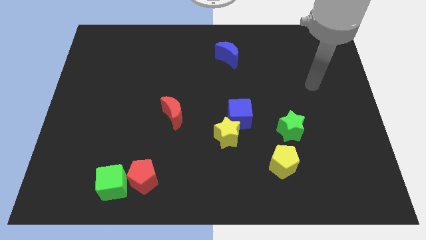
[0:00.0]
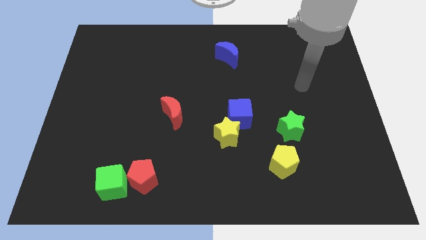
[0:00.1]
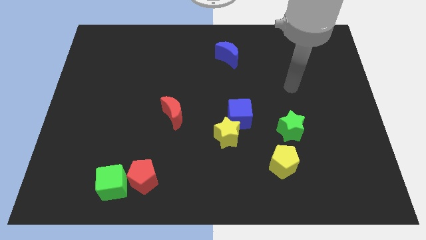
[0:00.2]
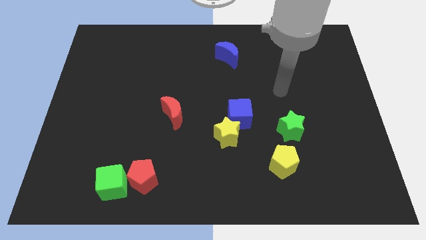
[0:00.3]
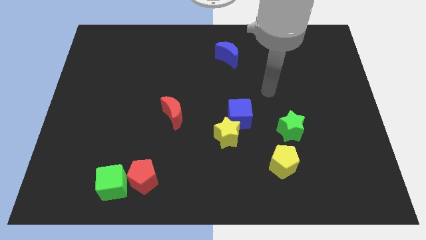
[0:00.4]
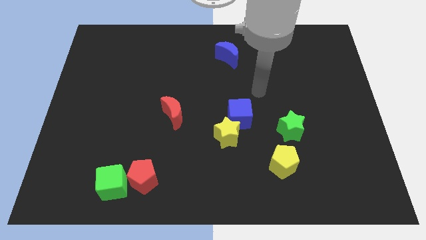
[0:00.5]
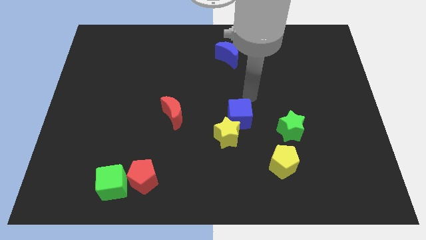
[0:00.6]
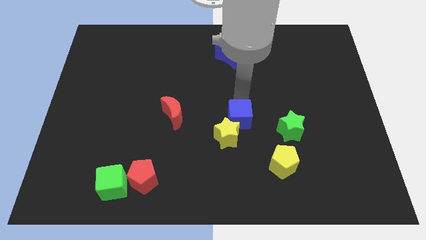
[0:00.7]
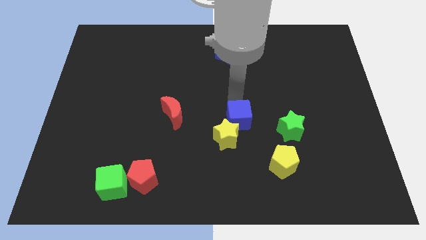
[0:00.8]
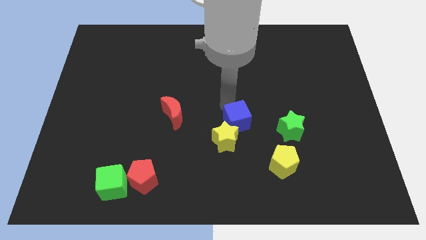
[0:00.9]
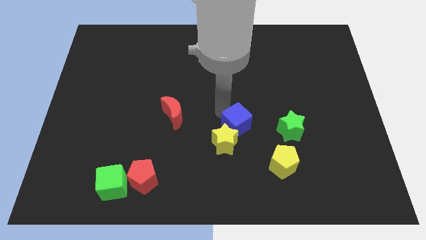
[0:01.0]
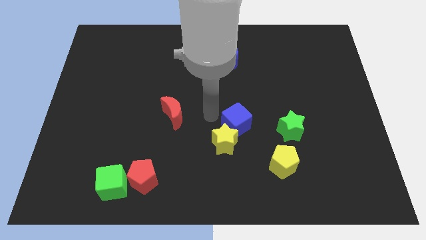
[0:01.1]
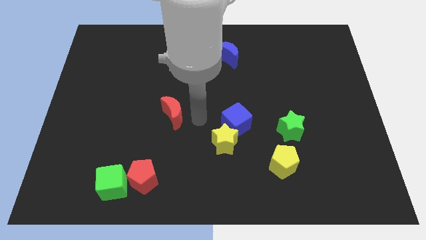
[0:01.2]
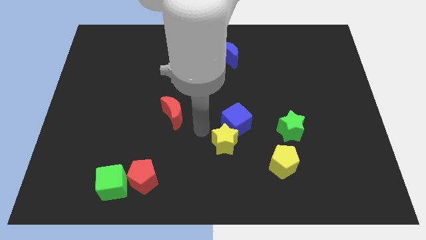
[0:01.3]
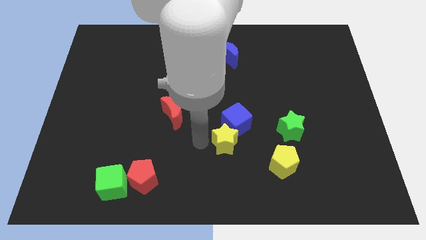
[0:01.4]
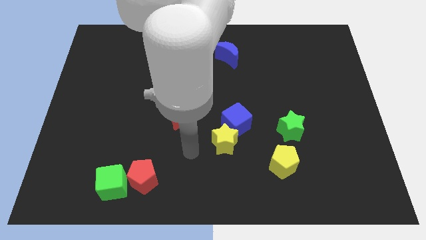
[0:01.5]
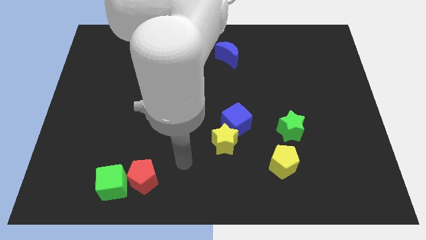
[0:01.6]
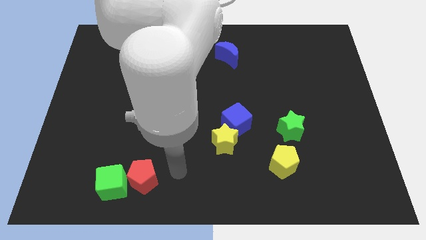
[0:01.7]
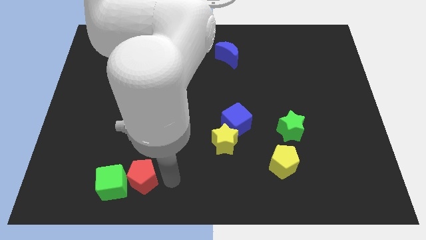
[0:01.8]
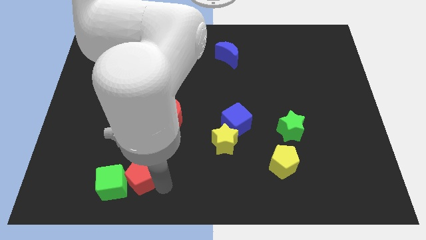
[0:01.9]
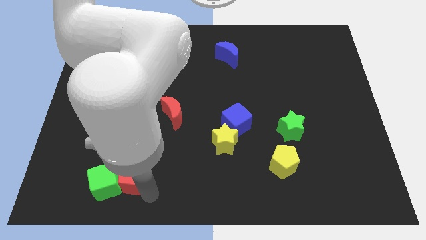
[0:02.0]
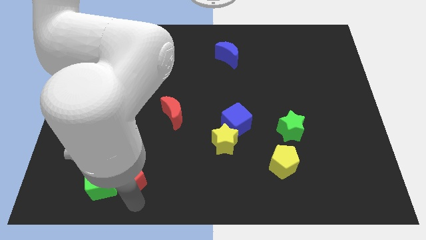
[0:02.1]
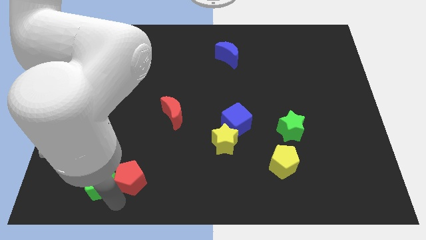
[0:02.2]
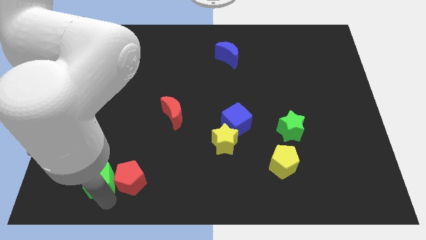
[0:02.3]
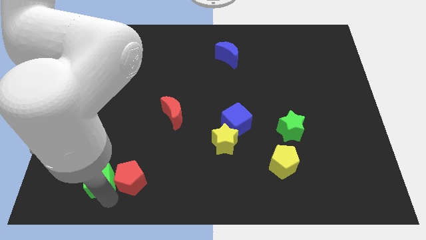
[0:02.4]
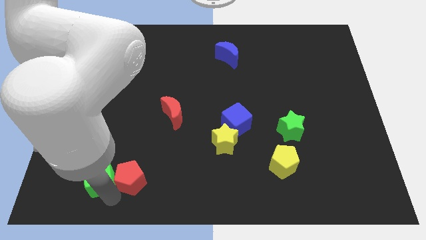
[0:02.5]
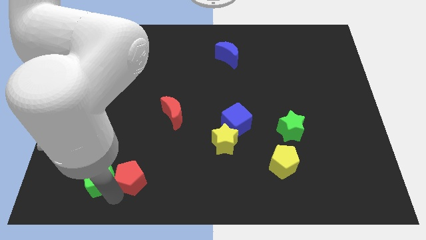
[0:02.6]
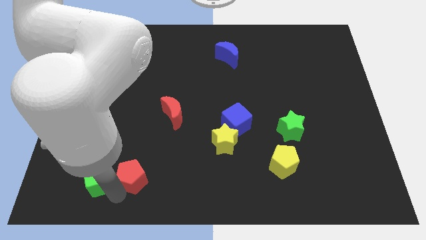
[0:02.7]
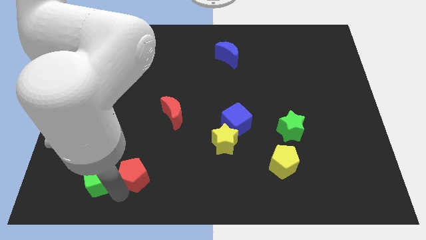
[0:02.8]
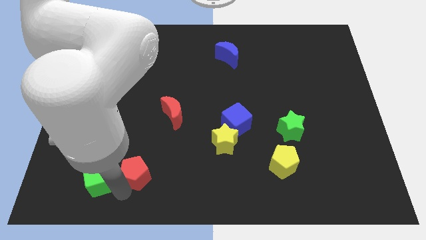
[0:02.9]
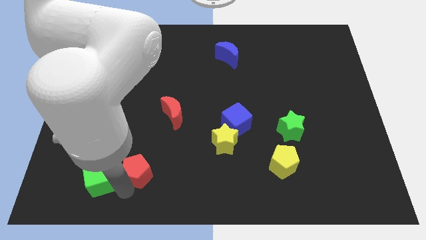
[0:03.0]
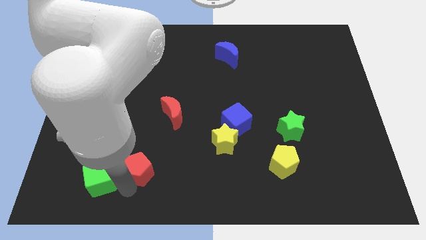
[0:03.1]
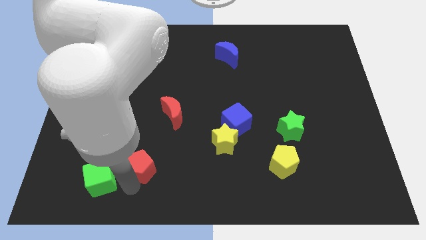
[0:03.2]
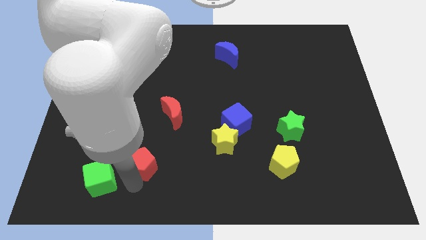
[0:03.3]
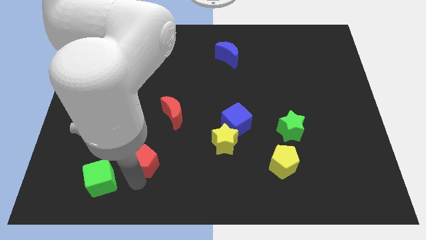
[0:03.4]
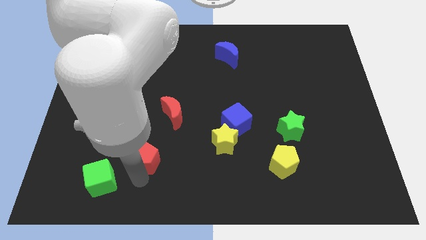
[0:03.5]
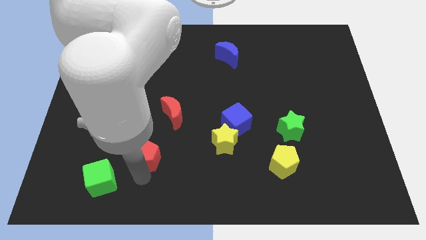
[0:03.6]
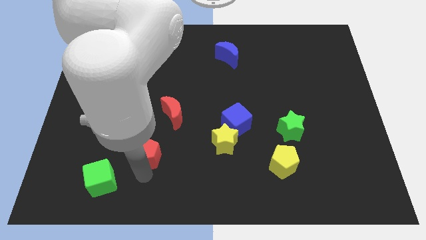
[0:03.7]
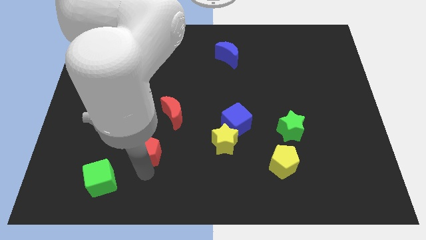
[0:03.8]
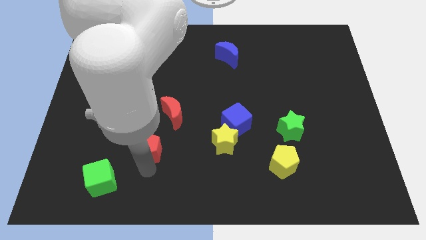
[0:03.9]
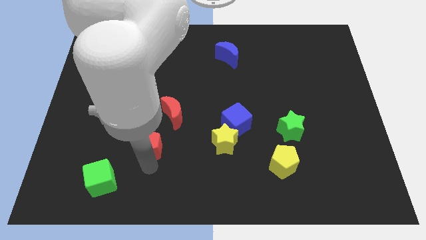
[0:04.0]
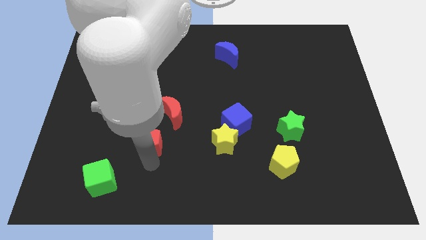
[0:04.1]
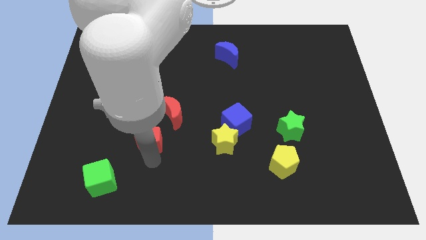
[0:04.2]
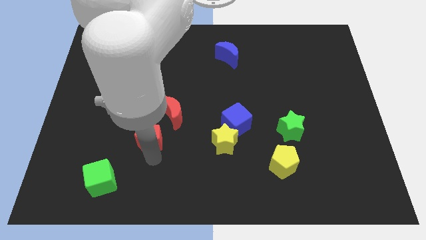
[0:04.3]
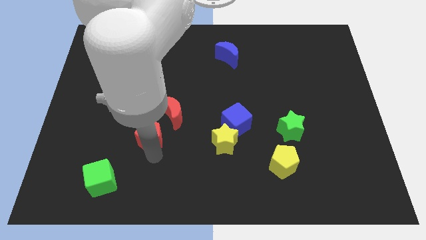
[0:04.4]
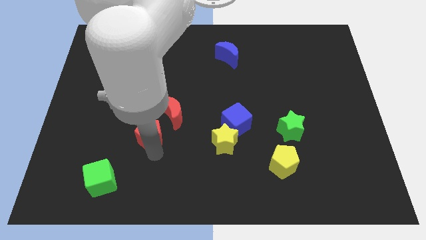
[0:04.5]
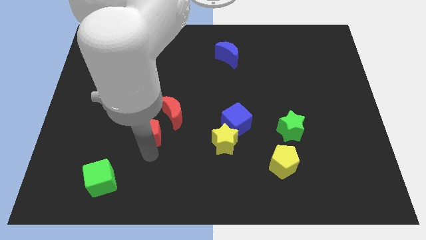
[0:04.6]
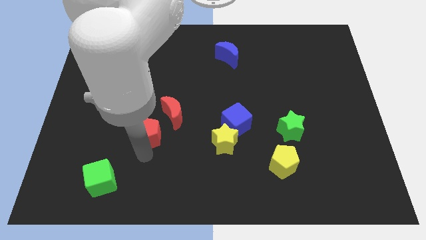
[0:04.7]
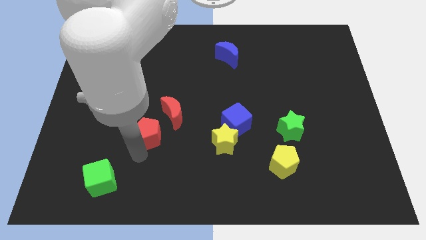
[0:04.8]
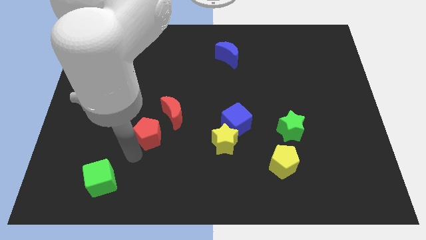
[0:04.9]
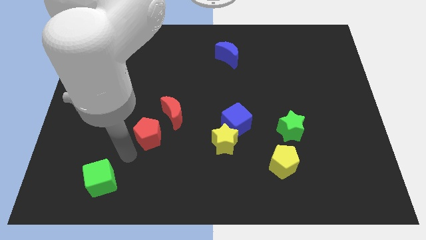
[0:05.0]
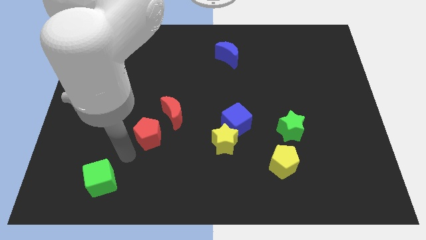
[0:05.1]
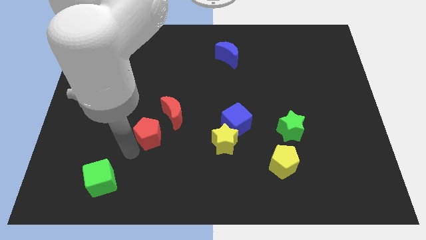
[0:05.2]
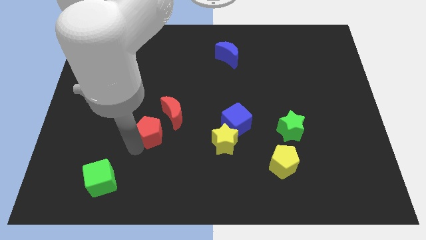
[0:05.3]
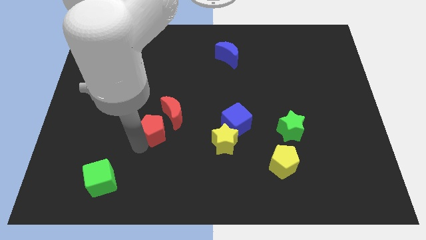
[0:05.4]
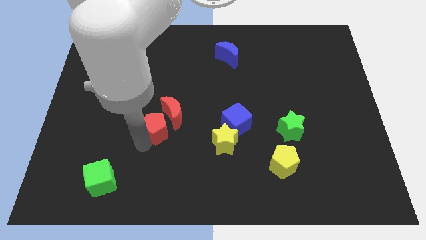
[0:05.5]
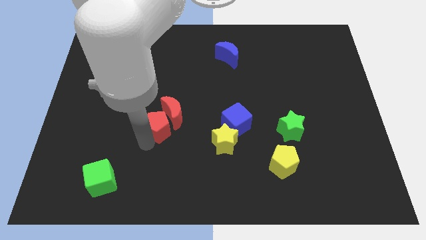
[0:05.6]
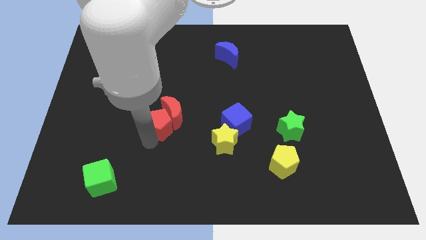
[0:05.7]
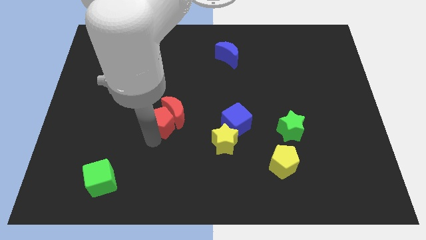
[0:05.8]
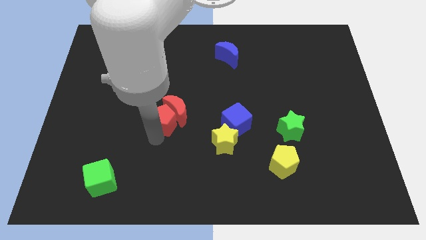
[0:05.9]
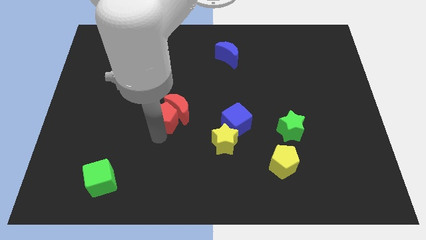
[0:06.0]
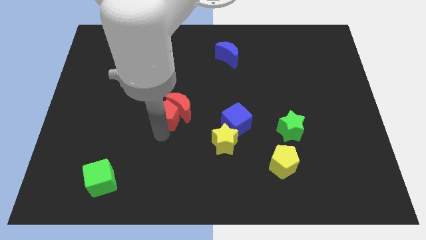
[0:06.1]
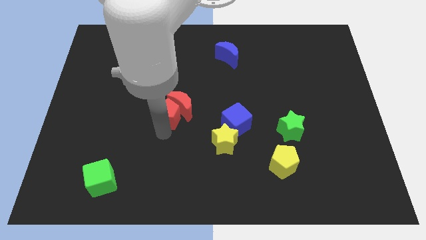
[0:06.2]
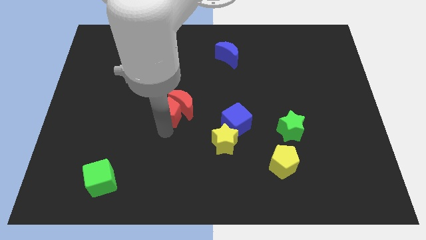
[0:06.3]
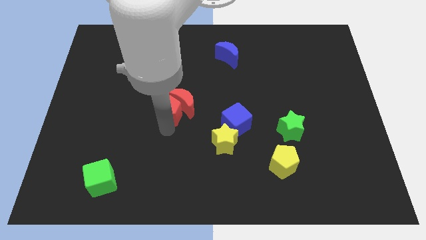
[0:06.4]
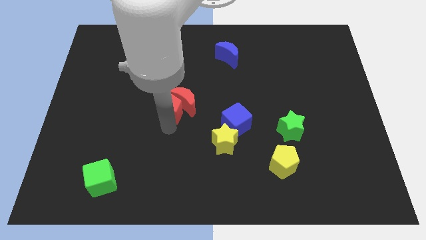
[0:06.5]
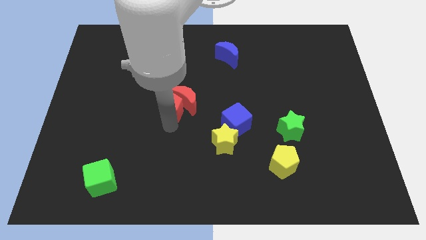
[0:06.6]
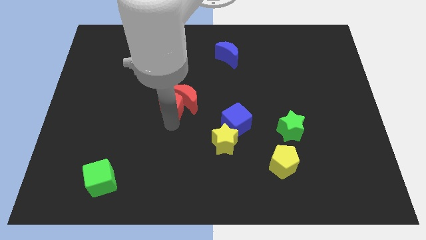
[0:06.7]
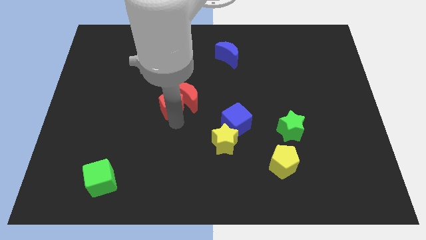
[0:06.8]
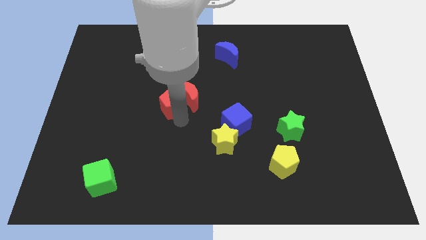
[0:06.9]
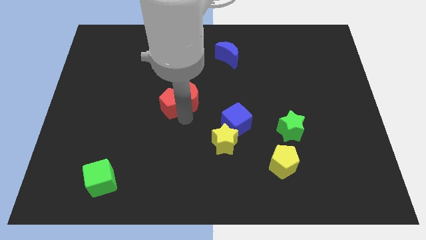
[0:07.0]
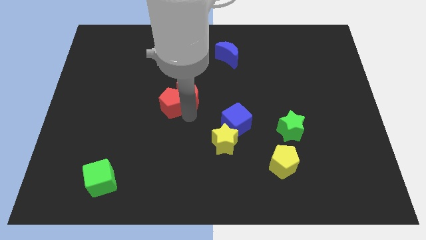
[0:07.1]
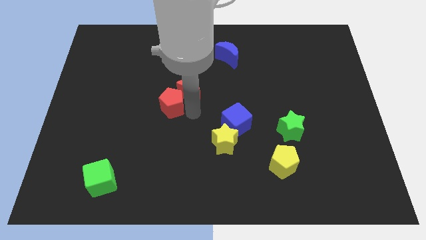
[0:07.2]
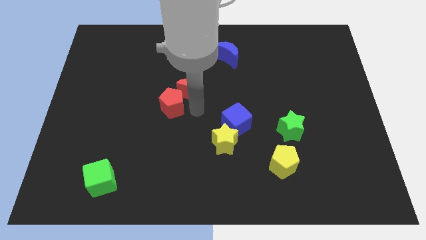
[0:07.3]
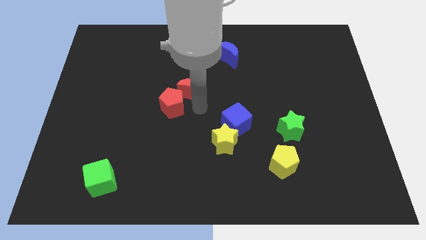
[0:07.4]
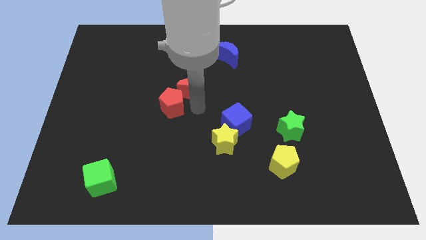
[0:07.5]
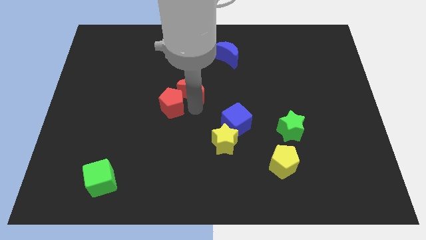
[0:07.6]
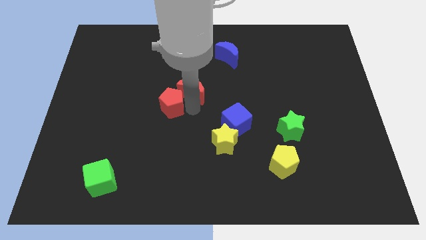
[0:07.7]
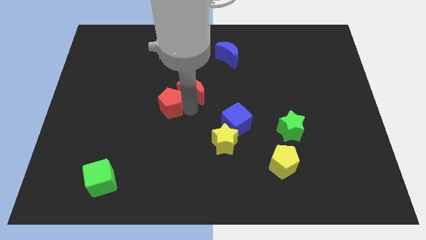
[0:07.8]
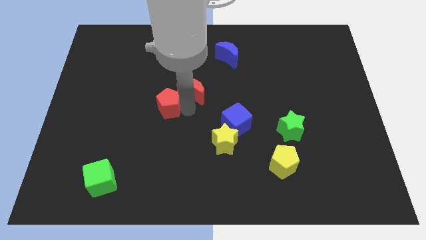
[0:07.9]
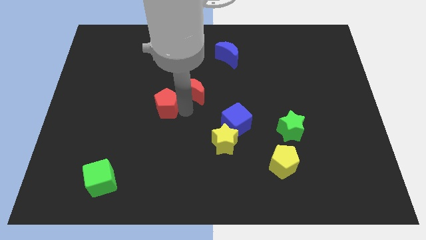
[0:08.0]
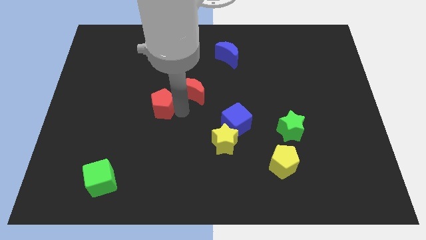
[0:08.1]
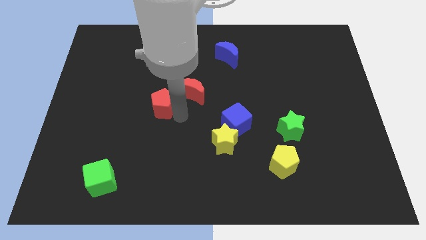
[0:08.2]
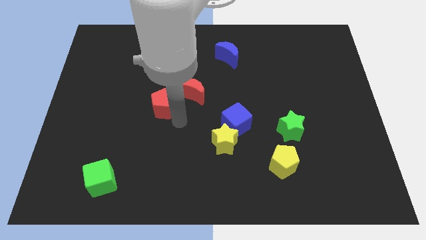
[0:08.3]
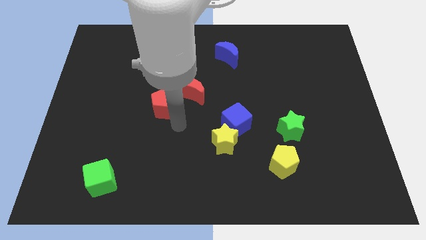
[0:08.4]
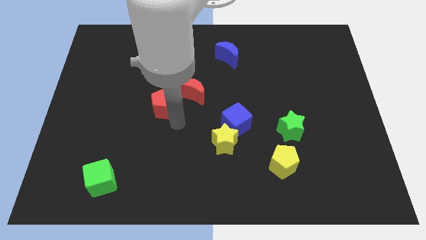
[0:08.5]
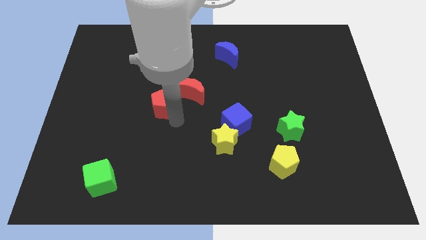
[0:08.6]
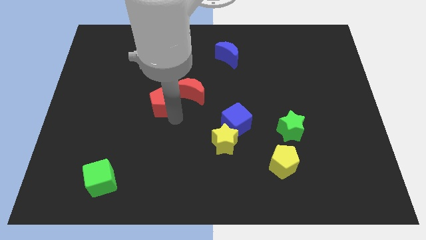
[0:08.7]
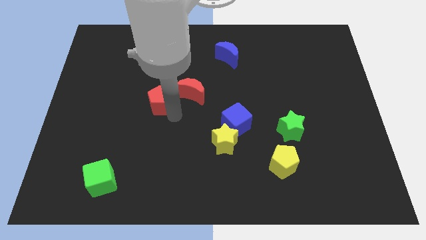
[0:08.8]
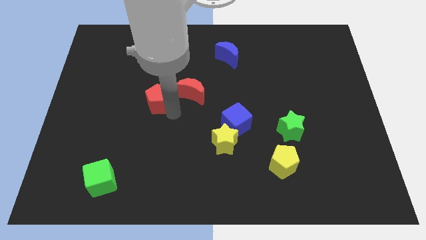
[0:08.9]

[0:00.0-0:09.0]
push the red pentagon upwards
